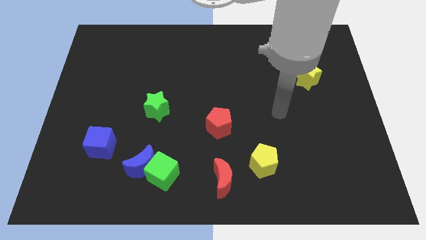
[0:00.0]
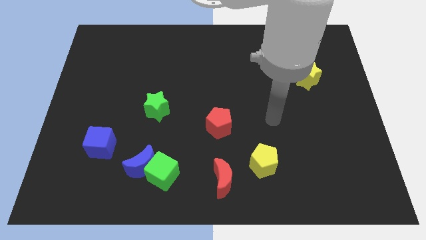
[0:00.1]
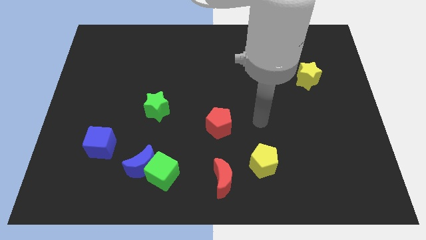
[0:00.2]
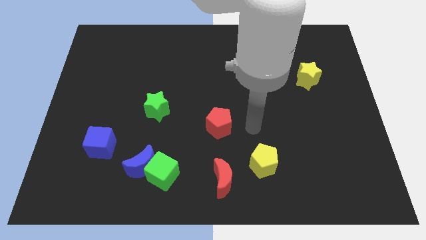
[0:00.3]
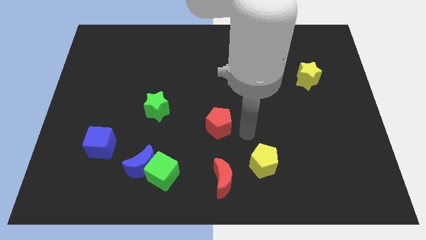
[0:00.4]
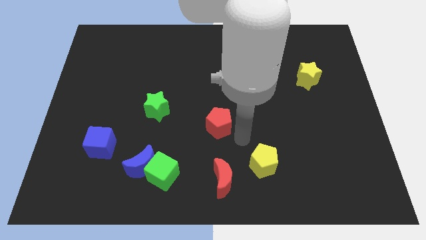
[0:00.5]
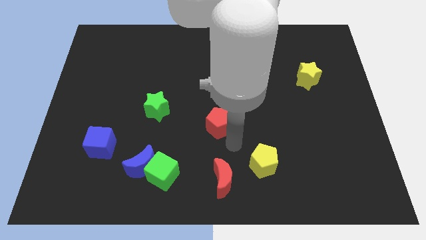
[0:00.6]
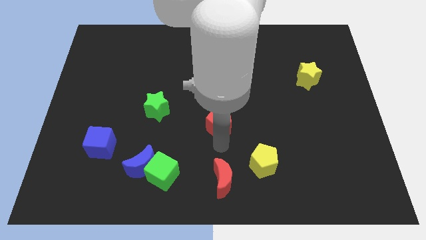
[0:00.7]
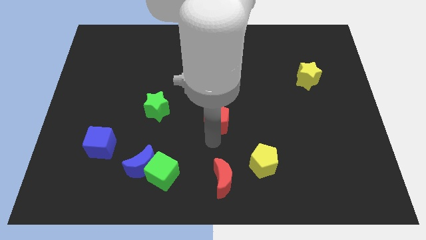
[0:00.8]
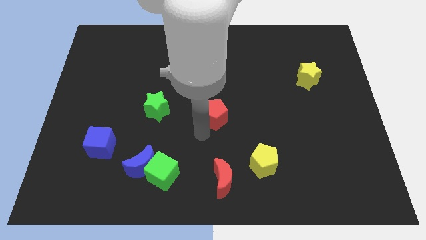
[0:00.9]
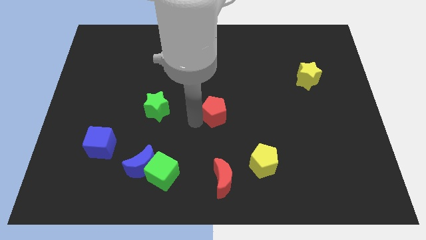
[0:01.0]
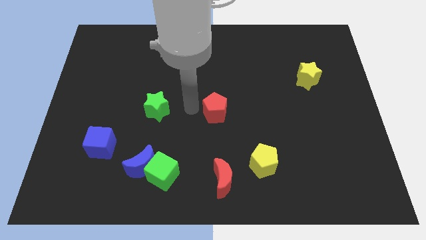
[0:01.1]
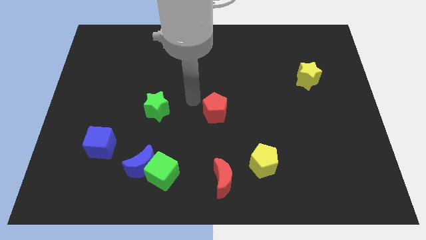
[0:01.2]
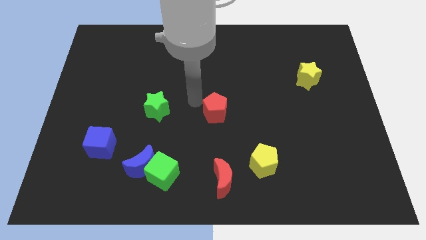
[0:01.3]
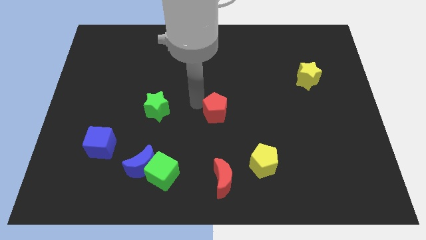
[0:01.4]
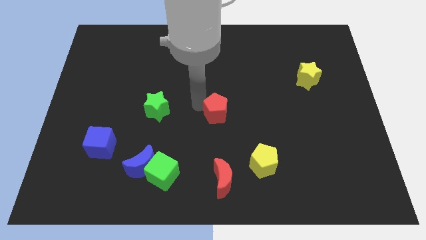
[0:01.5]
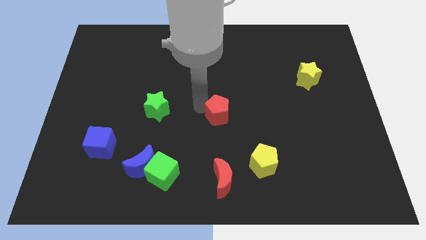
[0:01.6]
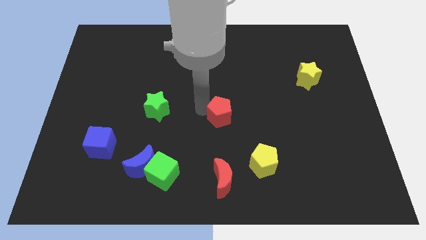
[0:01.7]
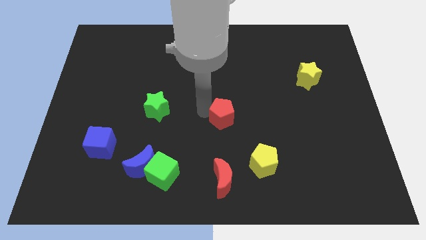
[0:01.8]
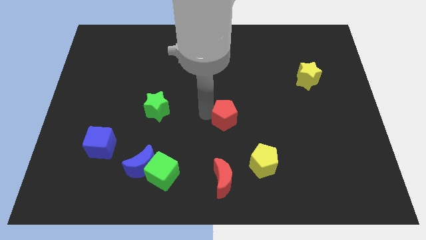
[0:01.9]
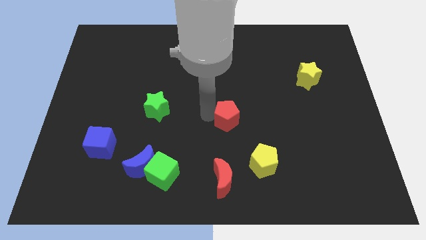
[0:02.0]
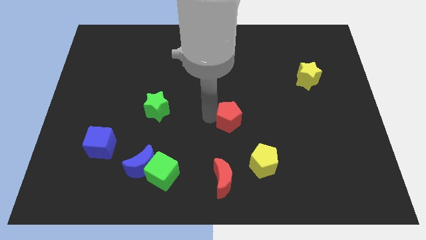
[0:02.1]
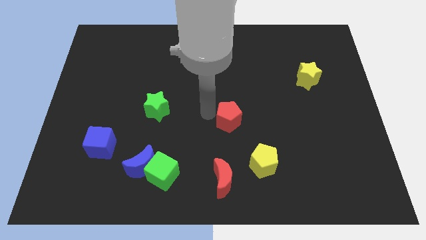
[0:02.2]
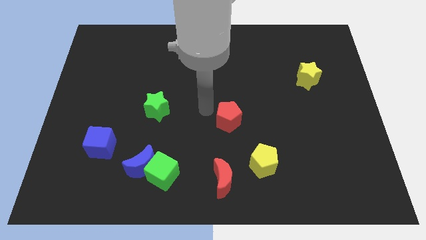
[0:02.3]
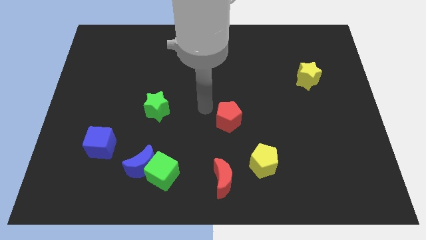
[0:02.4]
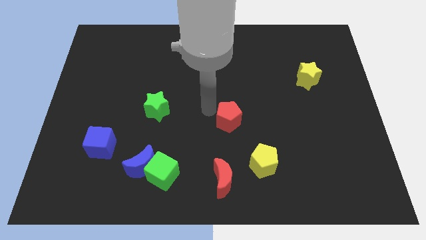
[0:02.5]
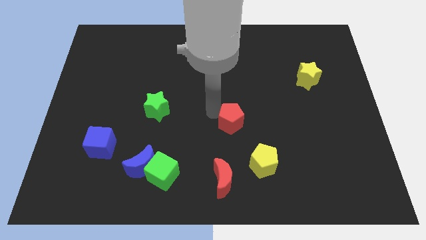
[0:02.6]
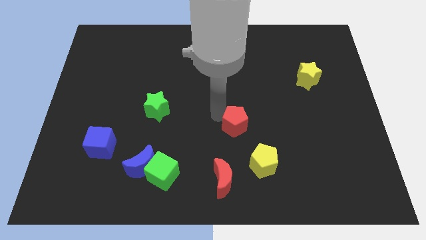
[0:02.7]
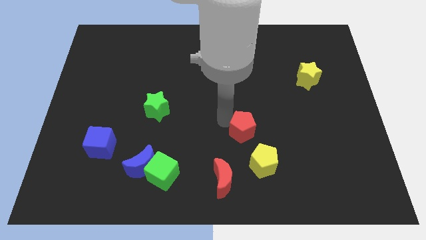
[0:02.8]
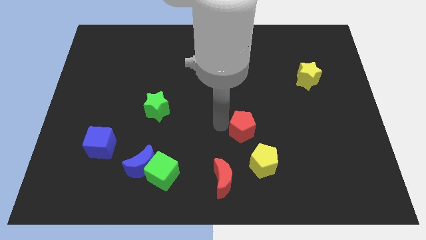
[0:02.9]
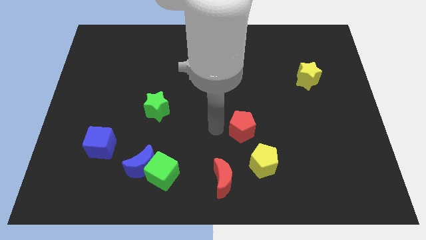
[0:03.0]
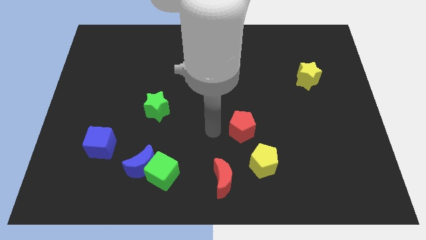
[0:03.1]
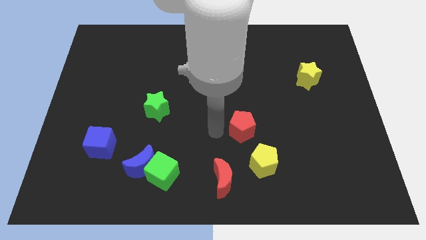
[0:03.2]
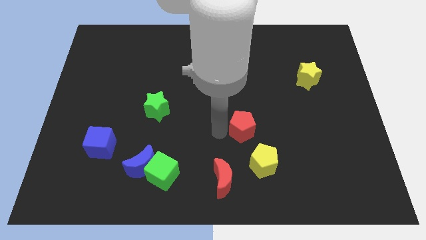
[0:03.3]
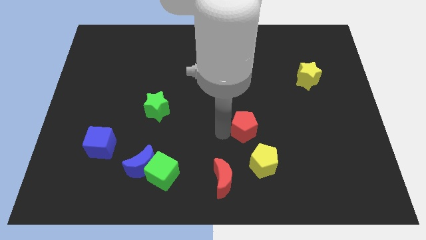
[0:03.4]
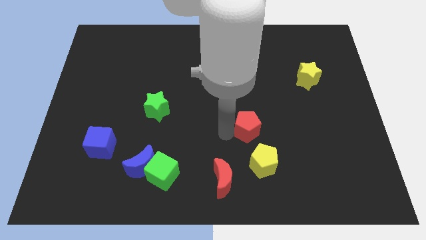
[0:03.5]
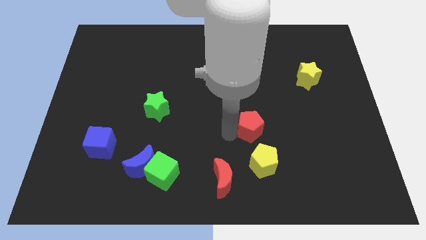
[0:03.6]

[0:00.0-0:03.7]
move the red pentagon slightly right

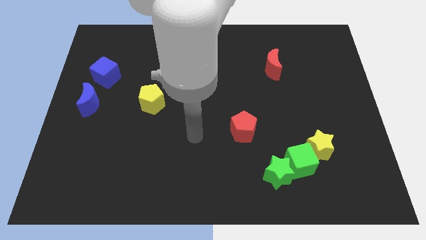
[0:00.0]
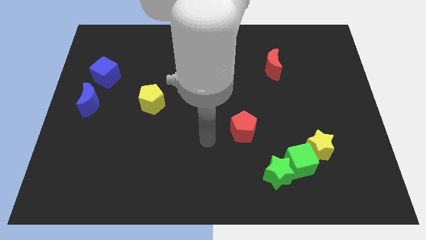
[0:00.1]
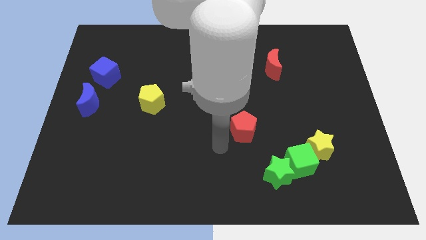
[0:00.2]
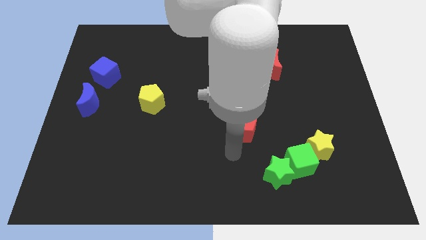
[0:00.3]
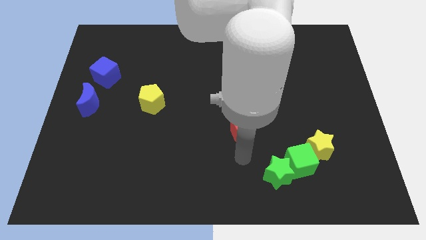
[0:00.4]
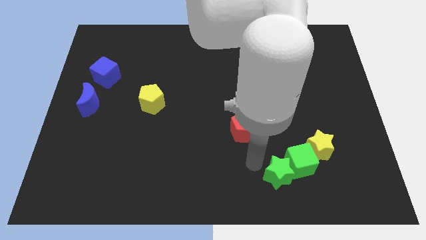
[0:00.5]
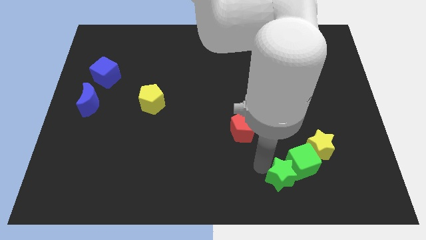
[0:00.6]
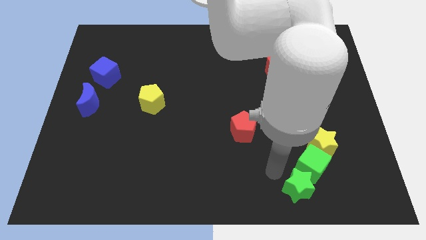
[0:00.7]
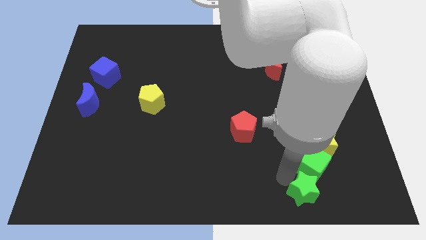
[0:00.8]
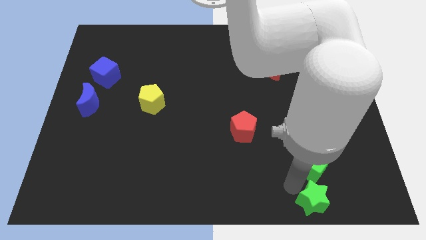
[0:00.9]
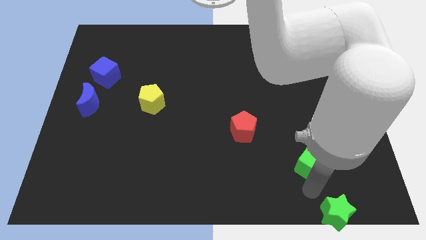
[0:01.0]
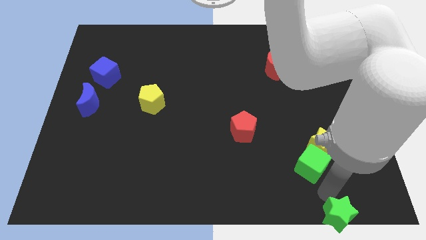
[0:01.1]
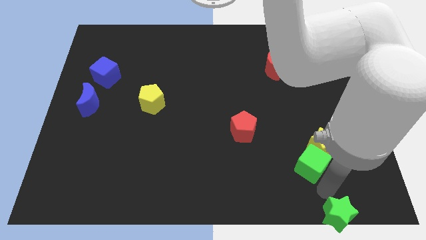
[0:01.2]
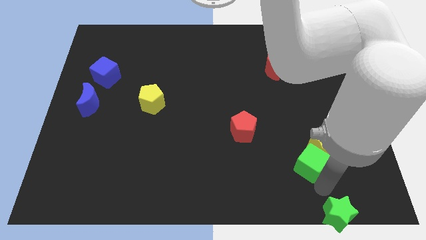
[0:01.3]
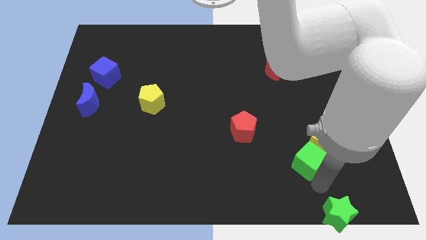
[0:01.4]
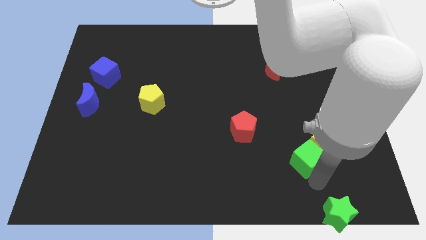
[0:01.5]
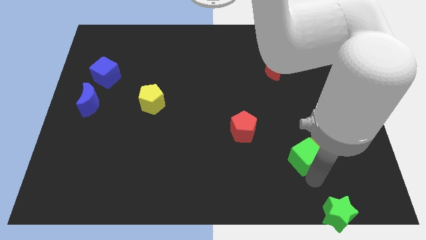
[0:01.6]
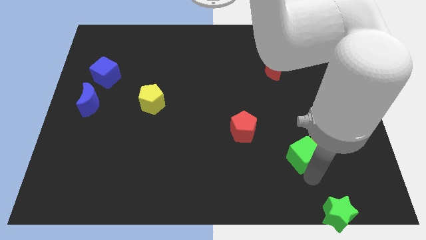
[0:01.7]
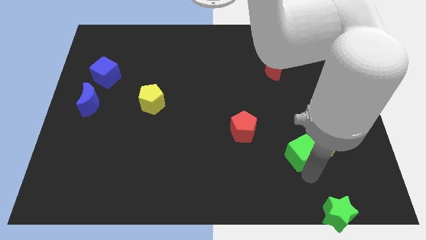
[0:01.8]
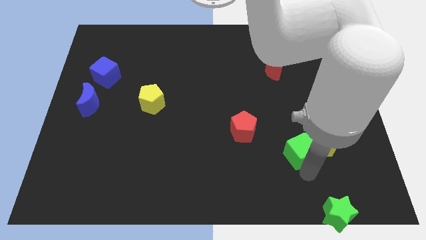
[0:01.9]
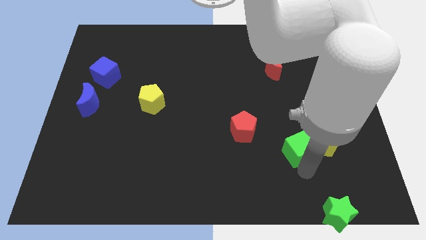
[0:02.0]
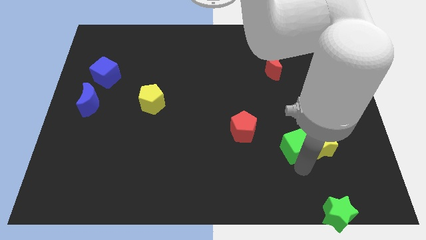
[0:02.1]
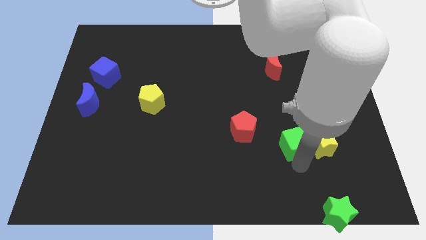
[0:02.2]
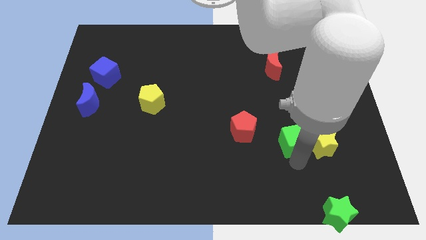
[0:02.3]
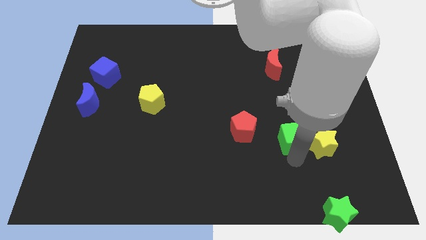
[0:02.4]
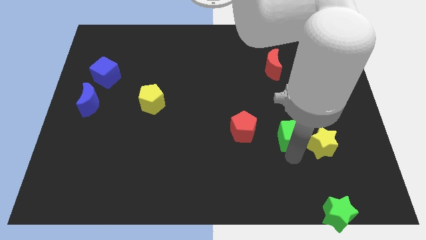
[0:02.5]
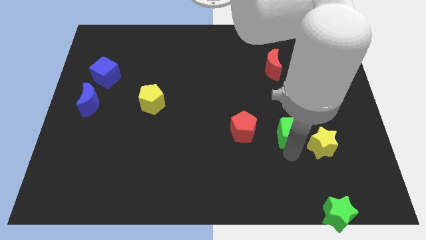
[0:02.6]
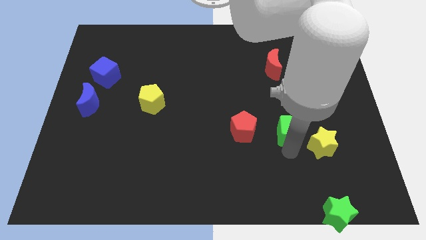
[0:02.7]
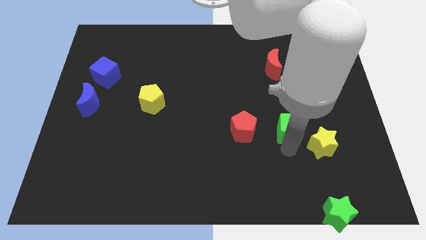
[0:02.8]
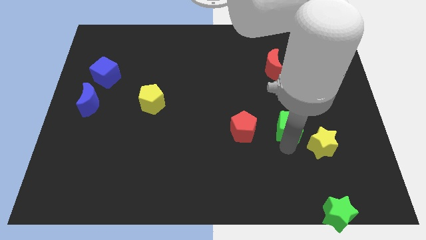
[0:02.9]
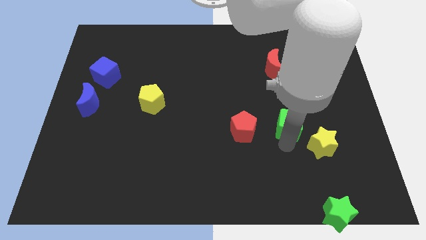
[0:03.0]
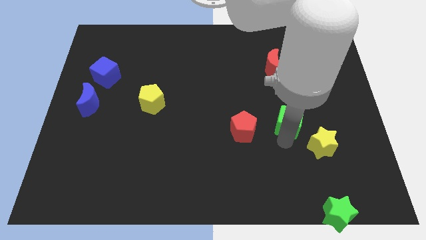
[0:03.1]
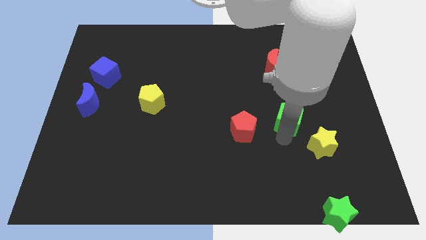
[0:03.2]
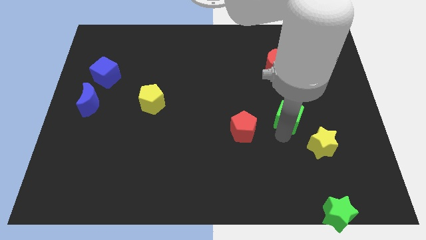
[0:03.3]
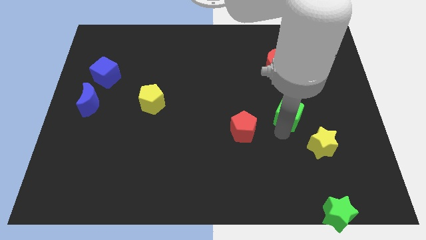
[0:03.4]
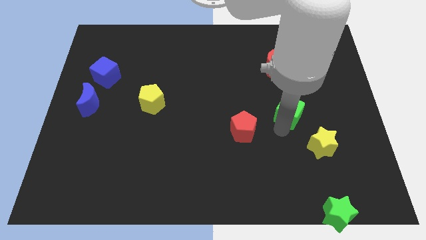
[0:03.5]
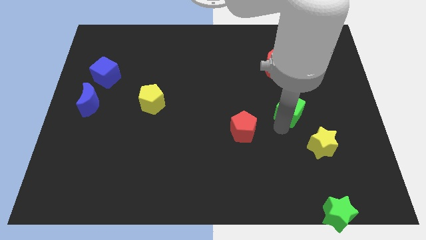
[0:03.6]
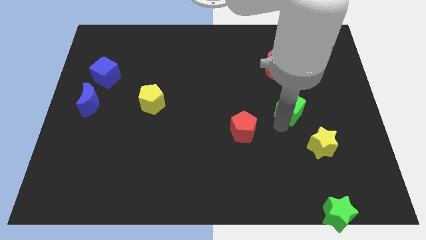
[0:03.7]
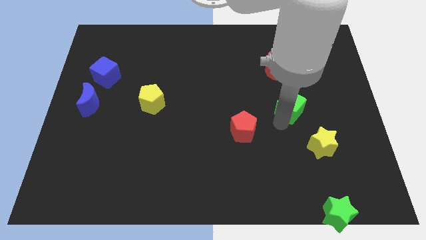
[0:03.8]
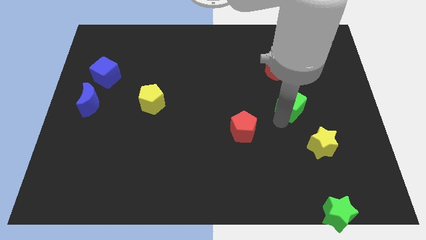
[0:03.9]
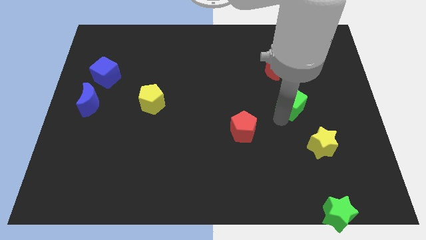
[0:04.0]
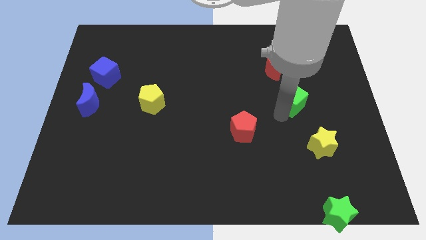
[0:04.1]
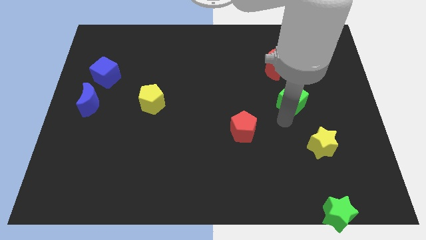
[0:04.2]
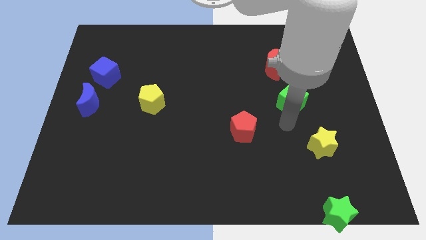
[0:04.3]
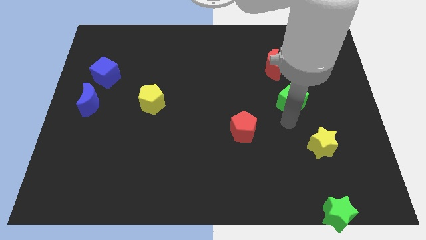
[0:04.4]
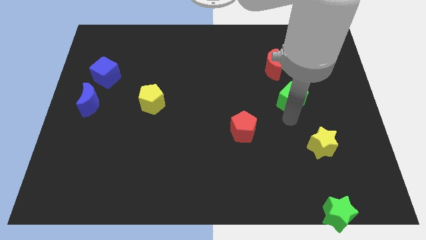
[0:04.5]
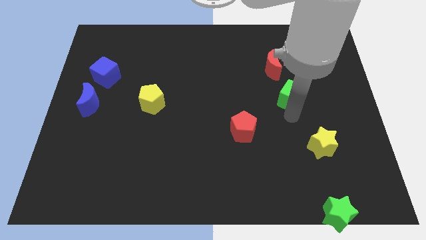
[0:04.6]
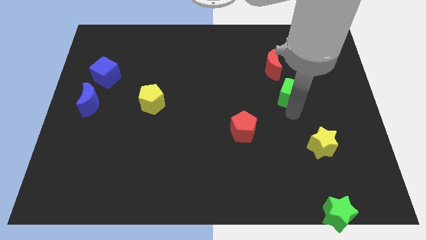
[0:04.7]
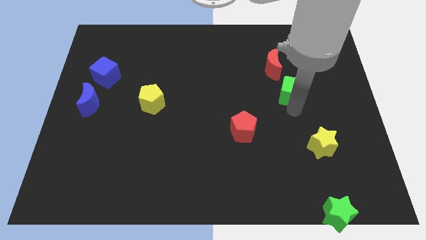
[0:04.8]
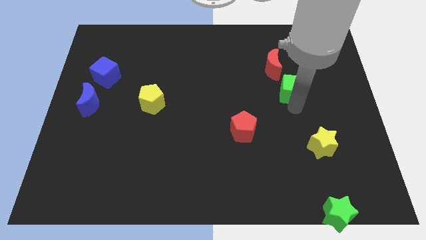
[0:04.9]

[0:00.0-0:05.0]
slide the green cube up
